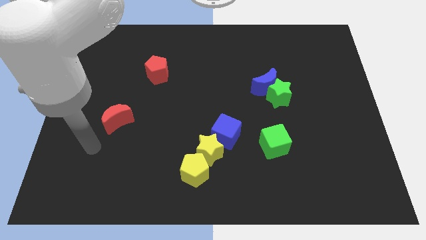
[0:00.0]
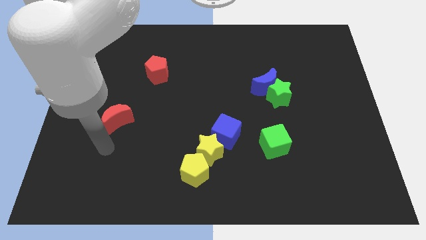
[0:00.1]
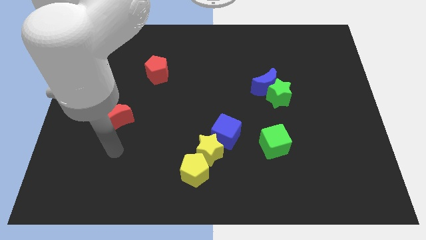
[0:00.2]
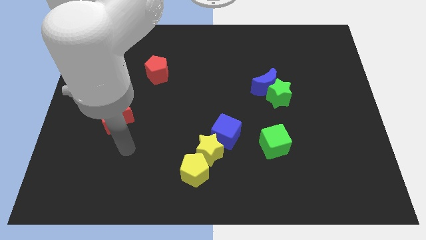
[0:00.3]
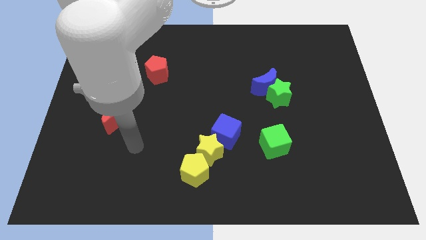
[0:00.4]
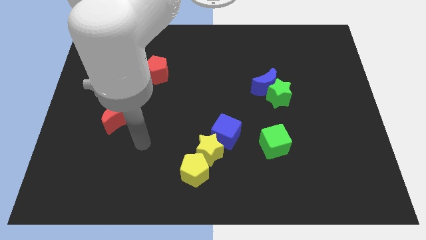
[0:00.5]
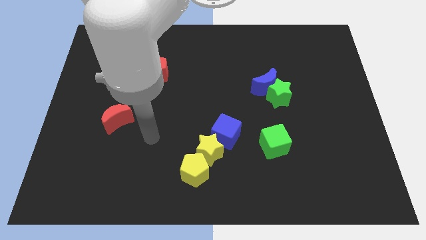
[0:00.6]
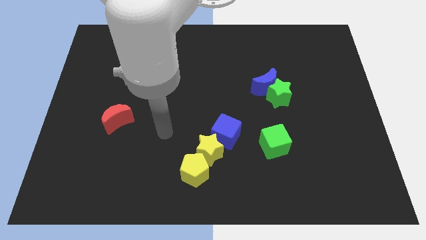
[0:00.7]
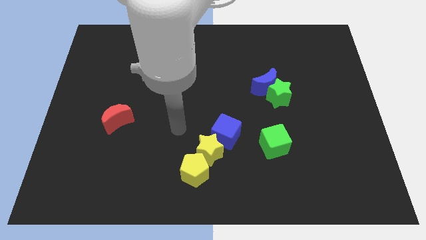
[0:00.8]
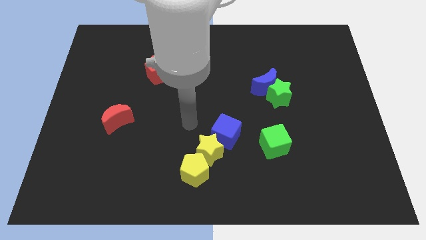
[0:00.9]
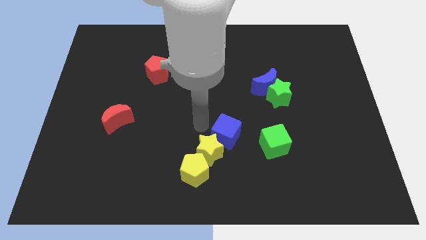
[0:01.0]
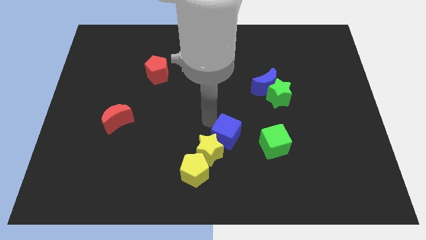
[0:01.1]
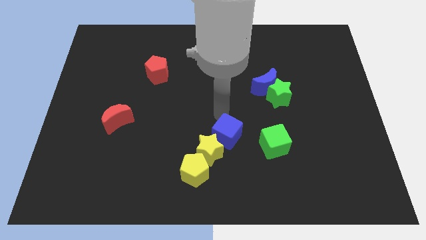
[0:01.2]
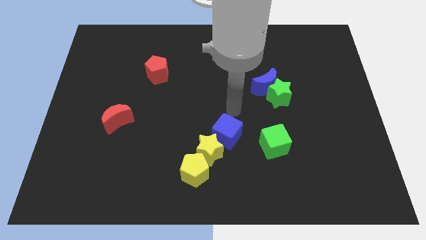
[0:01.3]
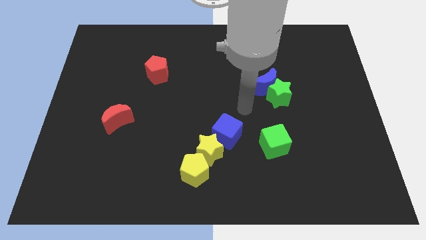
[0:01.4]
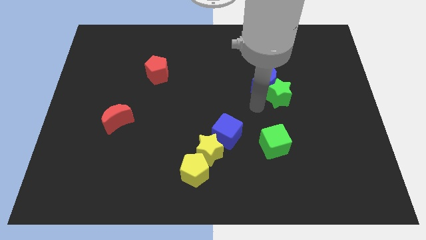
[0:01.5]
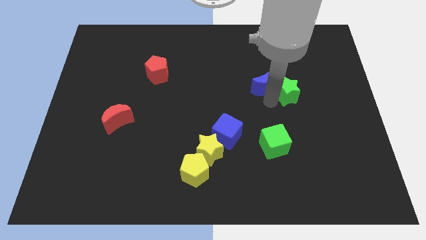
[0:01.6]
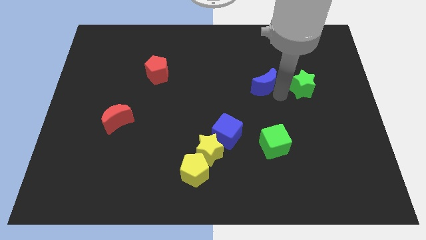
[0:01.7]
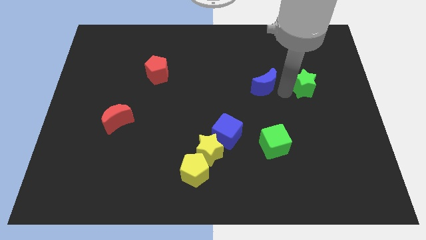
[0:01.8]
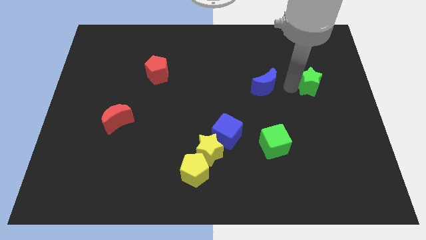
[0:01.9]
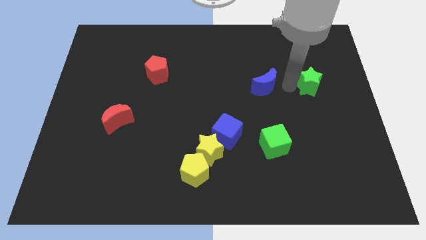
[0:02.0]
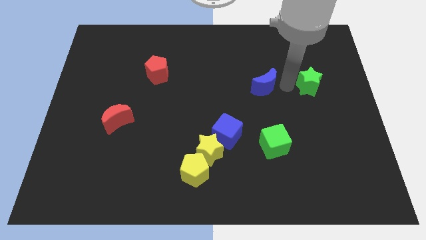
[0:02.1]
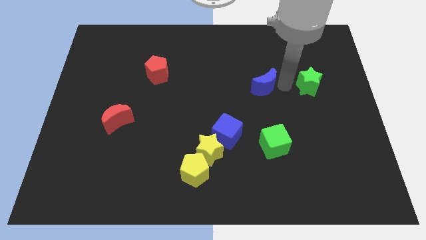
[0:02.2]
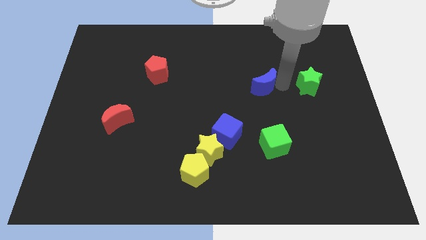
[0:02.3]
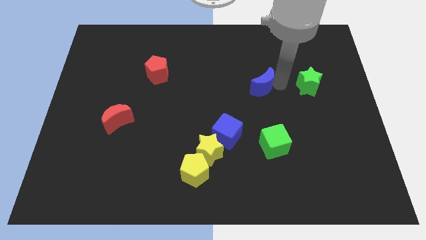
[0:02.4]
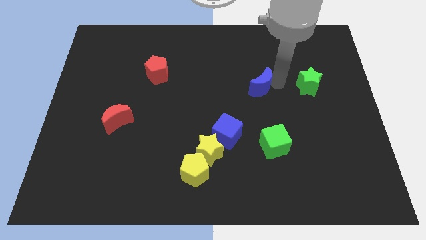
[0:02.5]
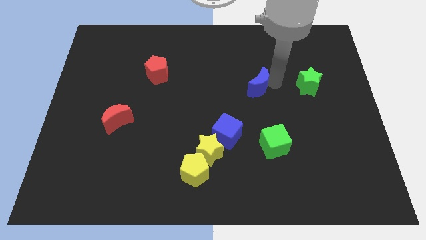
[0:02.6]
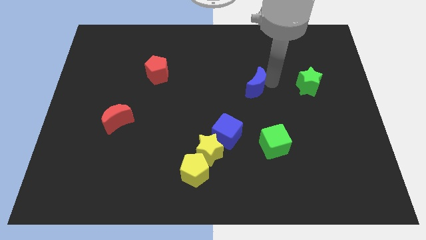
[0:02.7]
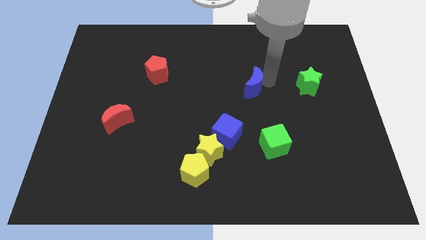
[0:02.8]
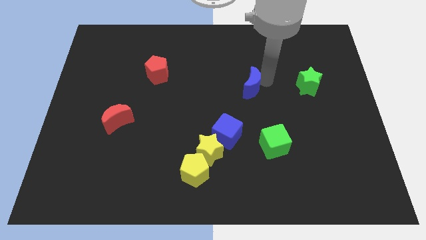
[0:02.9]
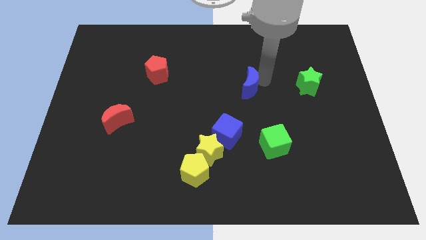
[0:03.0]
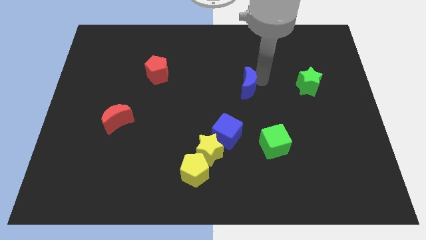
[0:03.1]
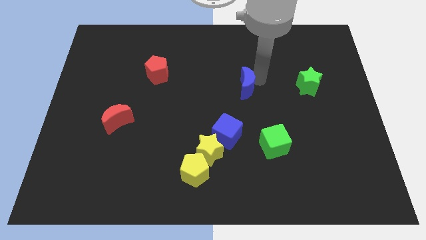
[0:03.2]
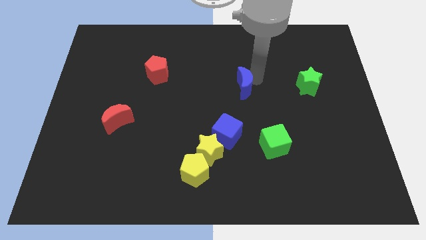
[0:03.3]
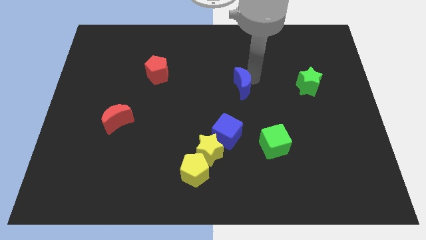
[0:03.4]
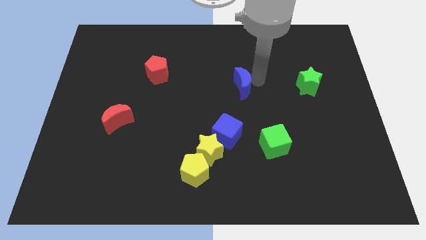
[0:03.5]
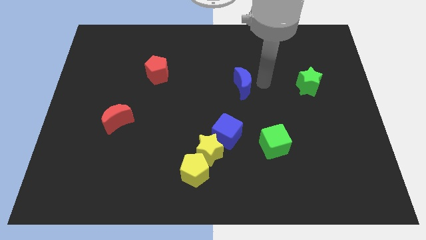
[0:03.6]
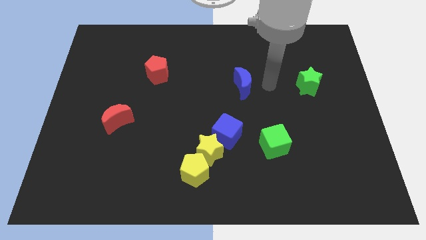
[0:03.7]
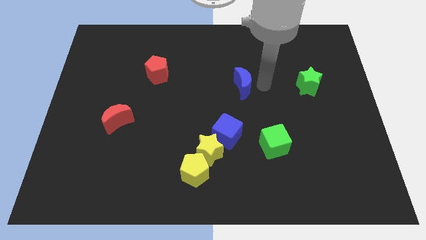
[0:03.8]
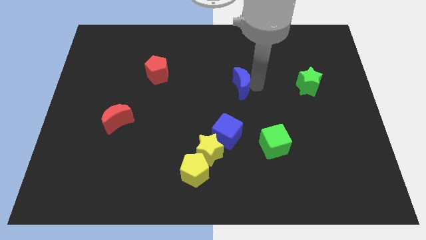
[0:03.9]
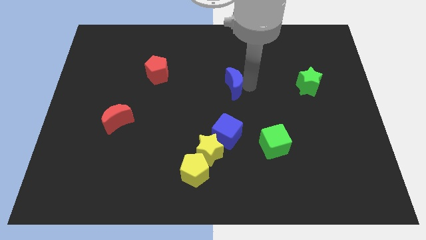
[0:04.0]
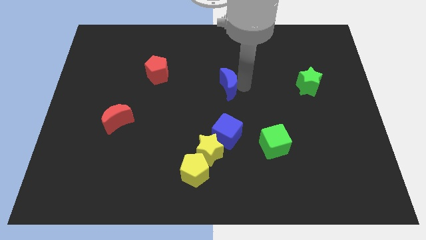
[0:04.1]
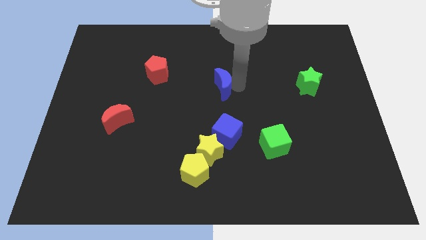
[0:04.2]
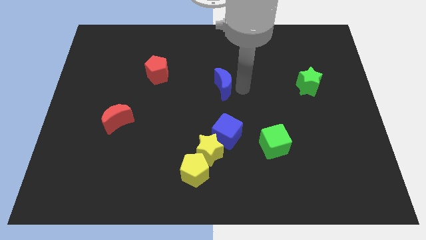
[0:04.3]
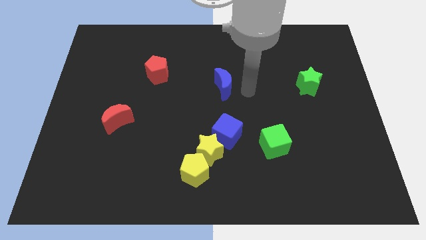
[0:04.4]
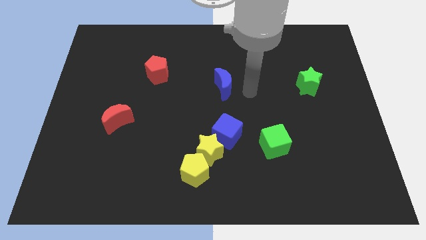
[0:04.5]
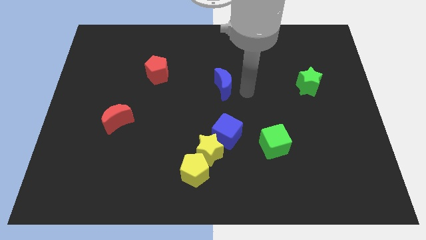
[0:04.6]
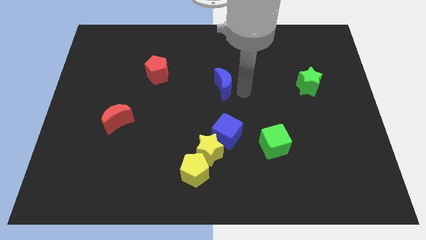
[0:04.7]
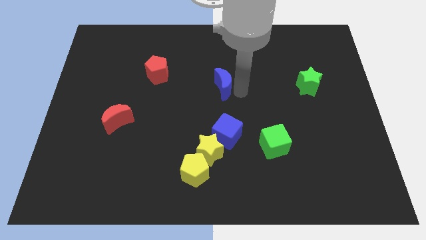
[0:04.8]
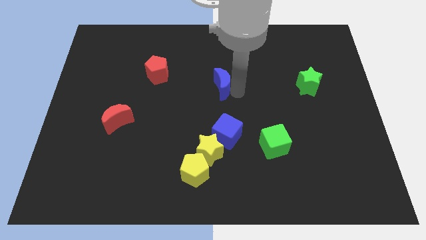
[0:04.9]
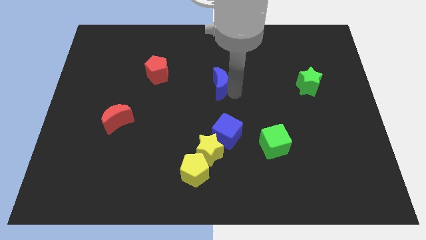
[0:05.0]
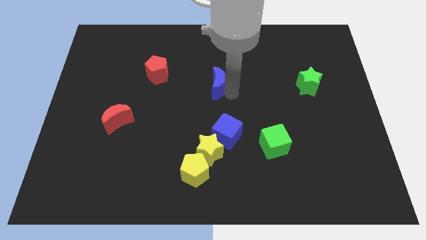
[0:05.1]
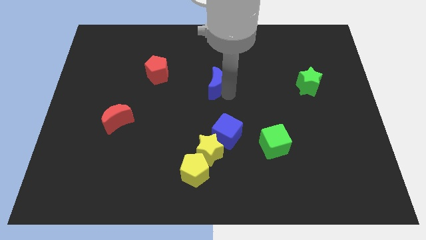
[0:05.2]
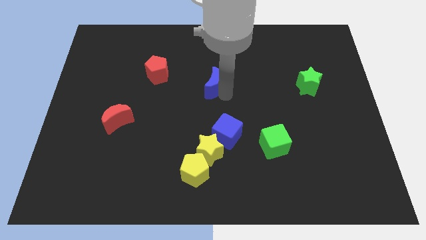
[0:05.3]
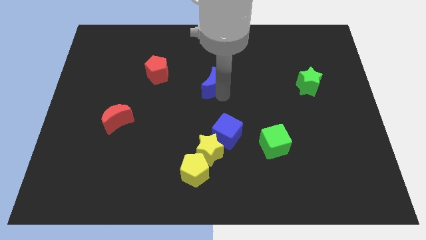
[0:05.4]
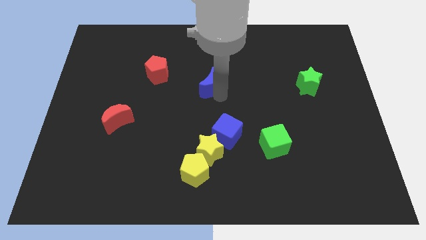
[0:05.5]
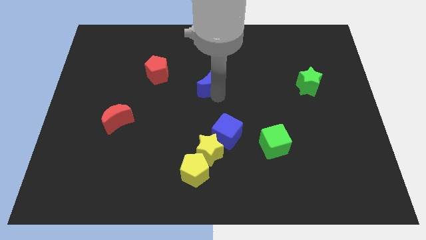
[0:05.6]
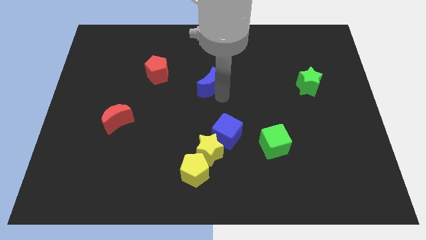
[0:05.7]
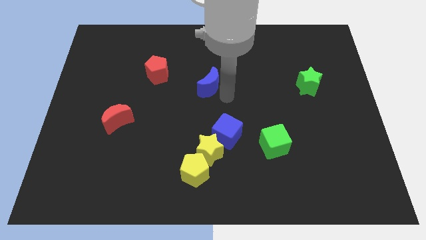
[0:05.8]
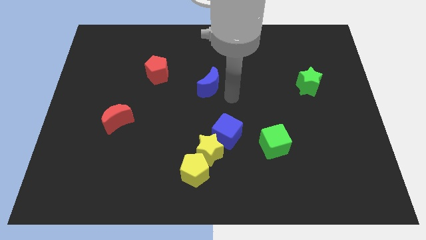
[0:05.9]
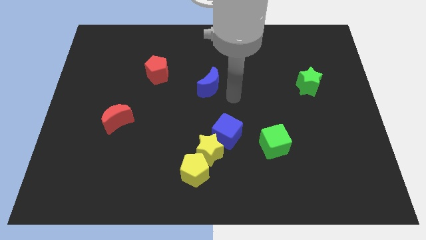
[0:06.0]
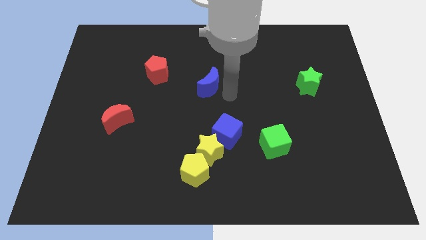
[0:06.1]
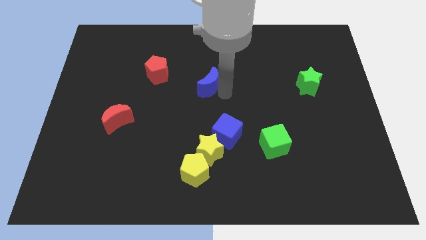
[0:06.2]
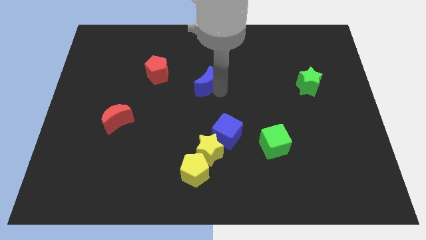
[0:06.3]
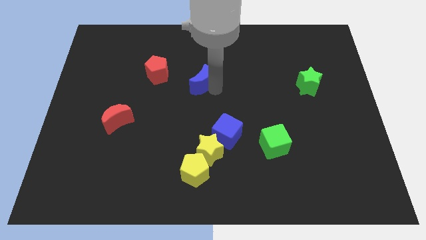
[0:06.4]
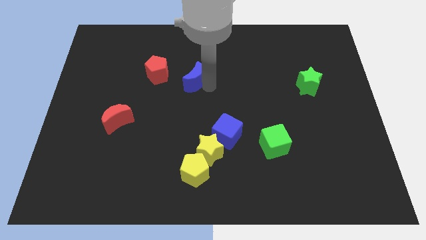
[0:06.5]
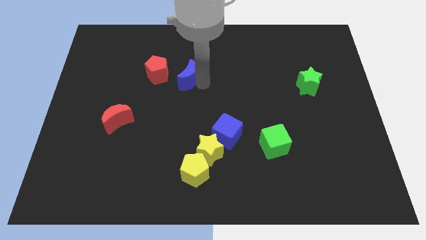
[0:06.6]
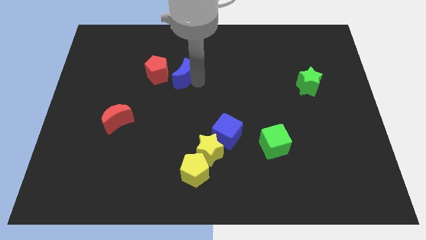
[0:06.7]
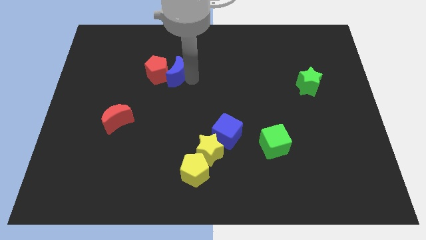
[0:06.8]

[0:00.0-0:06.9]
slide the blue moon close to the red pentagon

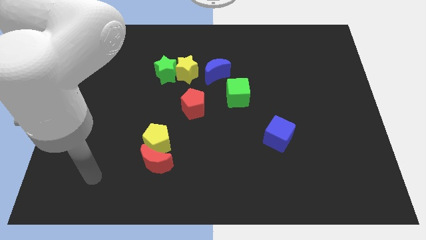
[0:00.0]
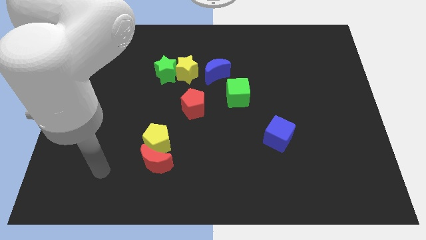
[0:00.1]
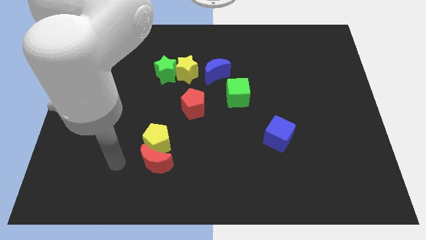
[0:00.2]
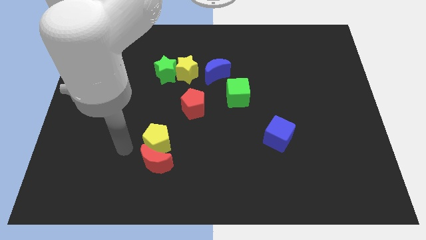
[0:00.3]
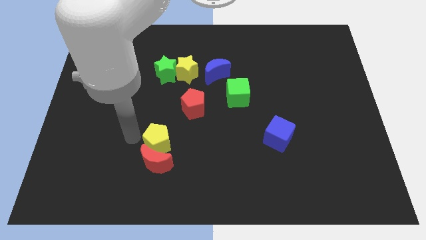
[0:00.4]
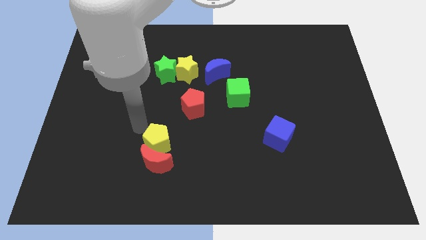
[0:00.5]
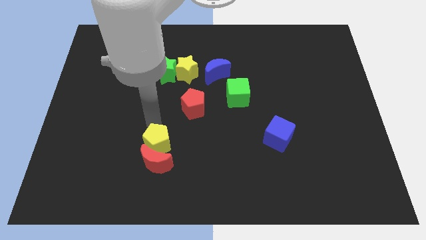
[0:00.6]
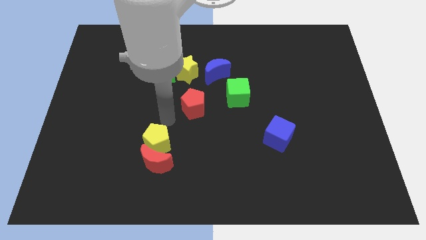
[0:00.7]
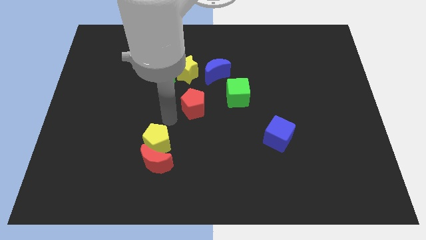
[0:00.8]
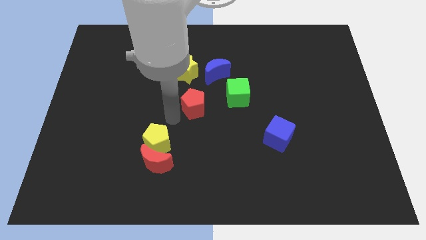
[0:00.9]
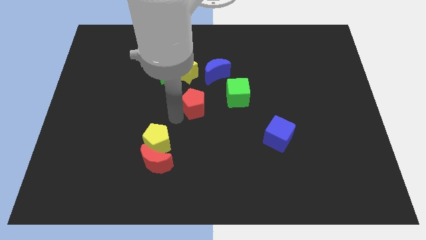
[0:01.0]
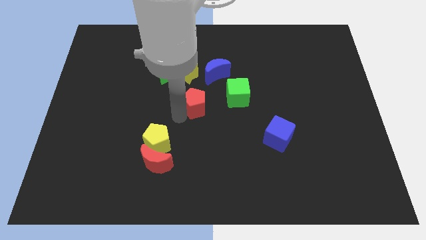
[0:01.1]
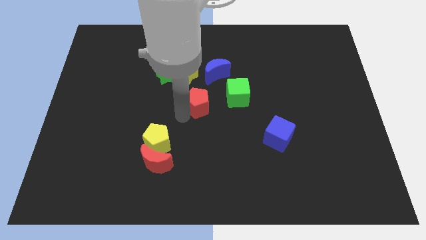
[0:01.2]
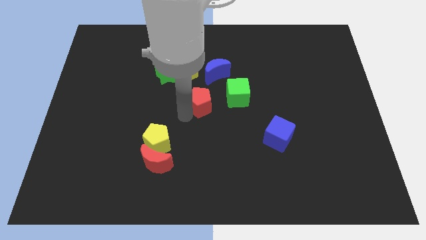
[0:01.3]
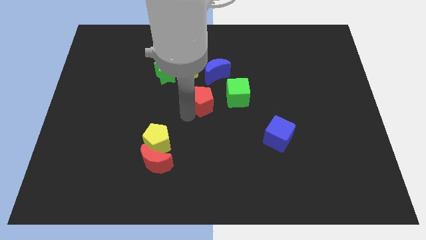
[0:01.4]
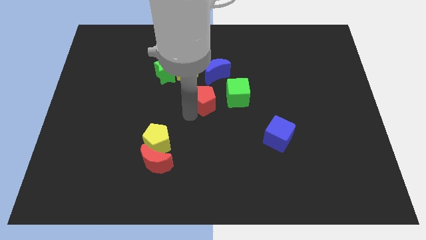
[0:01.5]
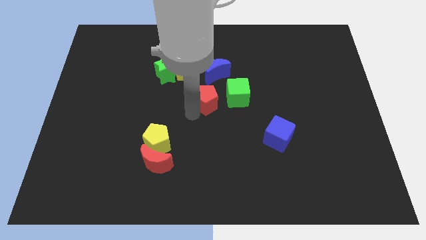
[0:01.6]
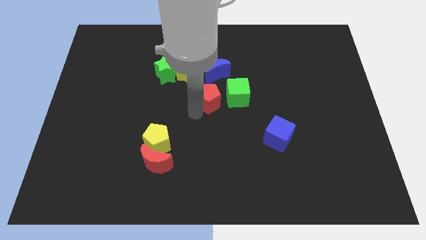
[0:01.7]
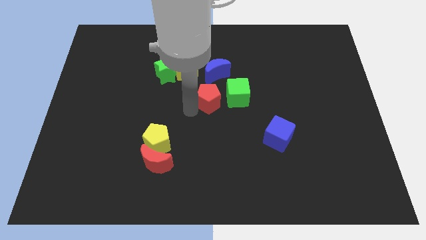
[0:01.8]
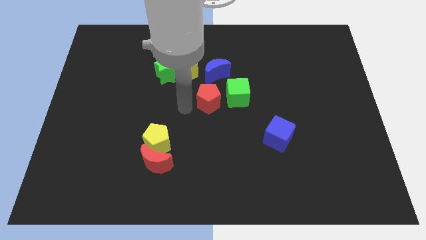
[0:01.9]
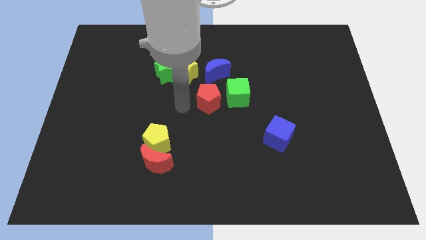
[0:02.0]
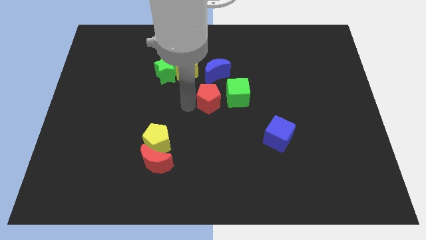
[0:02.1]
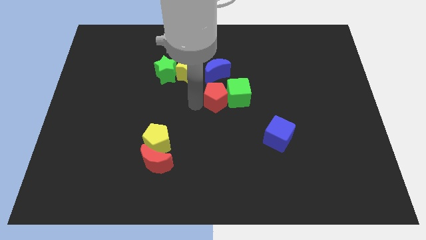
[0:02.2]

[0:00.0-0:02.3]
move the red pentagon close to the green cube
